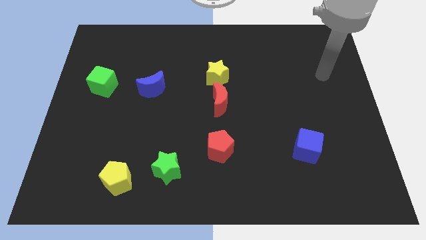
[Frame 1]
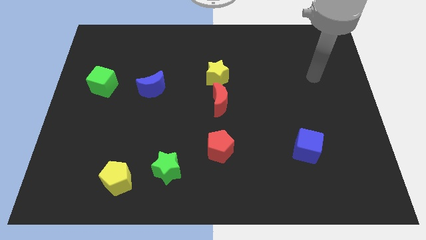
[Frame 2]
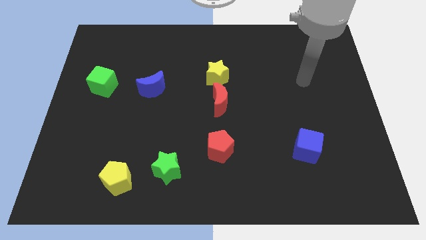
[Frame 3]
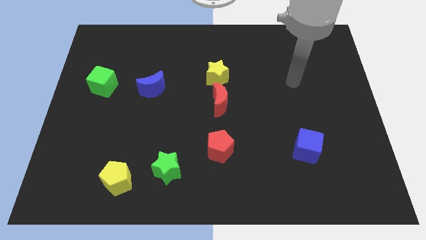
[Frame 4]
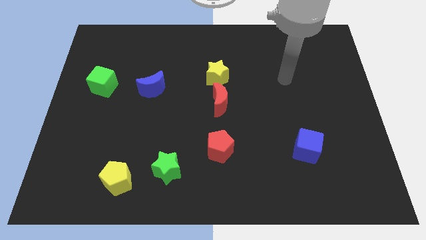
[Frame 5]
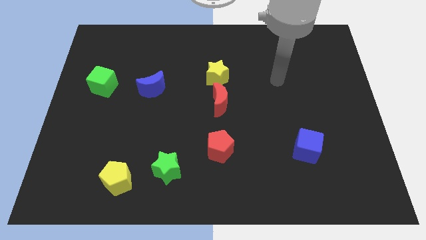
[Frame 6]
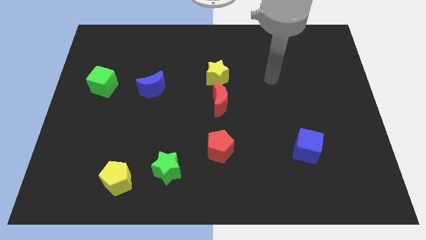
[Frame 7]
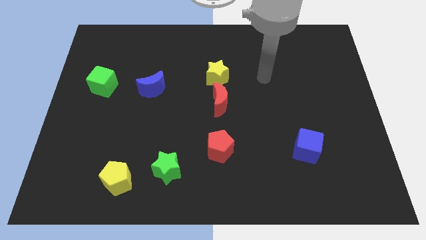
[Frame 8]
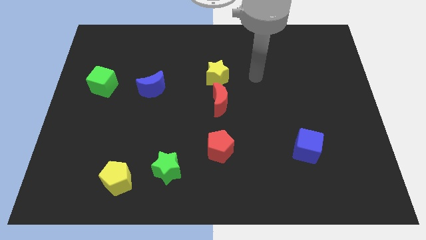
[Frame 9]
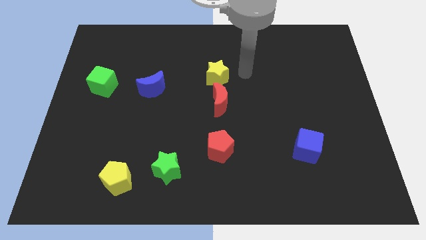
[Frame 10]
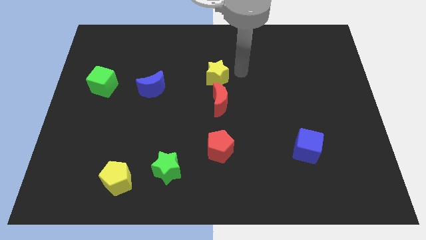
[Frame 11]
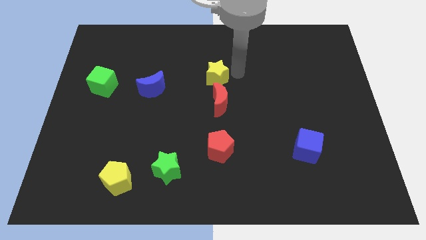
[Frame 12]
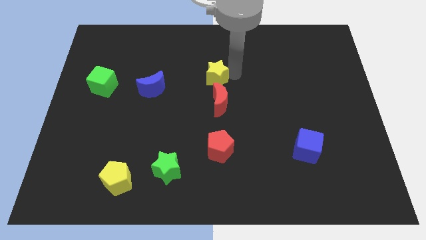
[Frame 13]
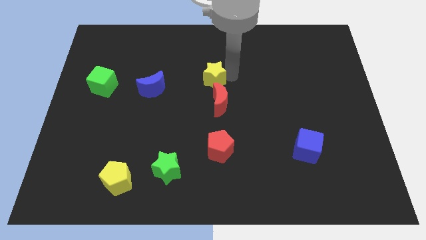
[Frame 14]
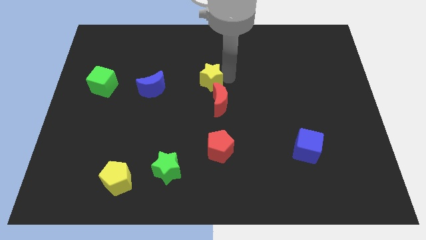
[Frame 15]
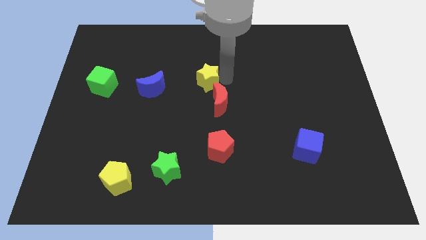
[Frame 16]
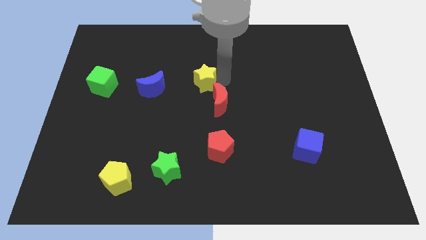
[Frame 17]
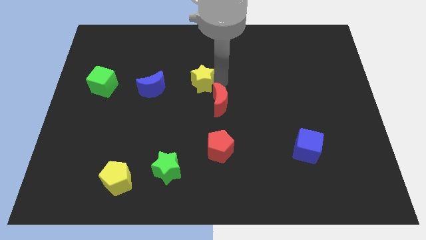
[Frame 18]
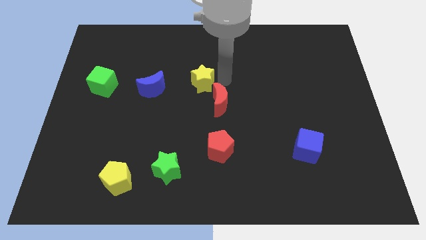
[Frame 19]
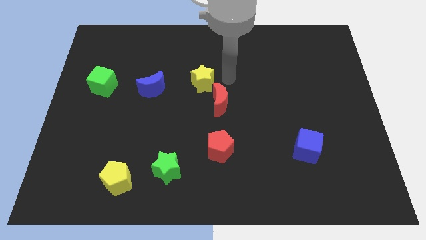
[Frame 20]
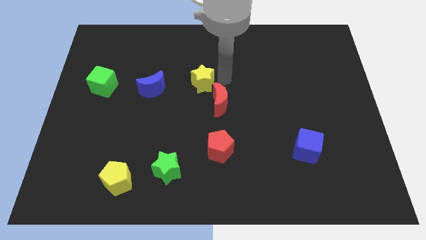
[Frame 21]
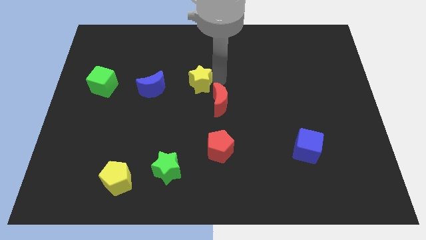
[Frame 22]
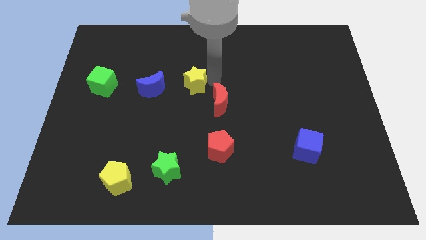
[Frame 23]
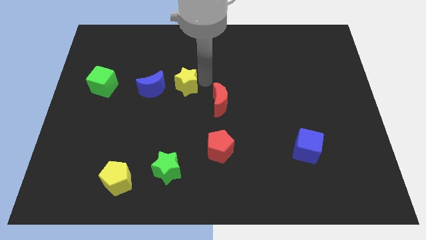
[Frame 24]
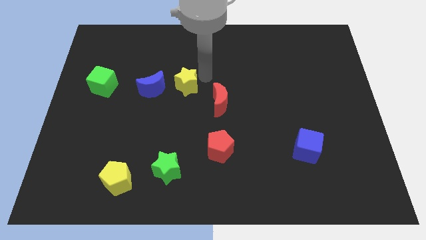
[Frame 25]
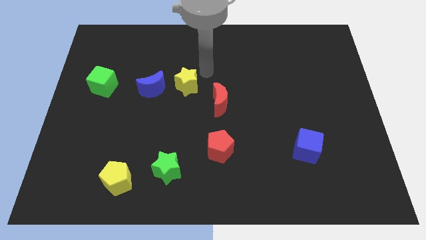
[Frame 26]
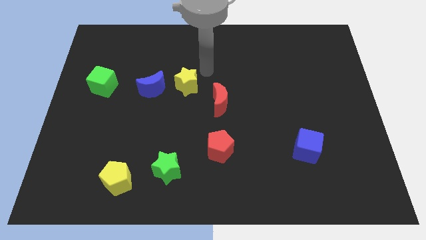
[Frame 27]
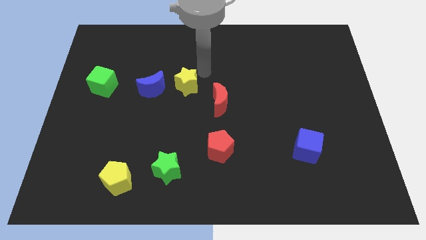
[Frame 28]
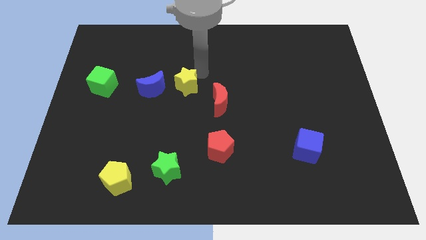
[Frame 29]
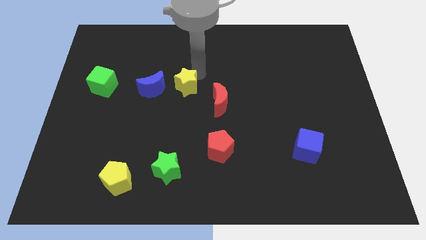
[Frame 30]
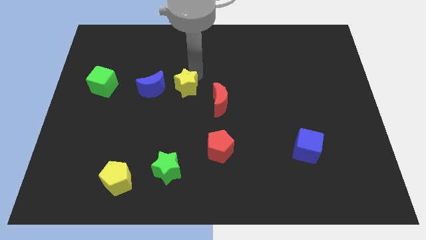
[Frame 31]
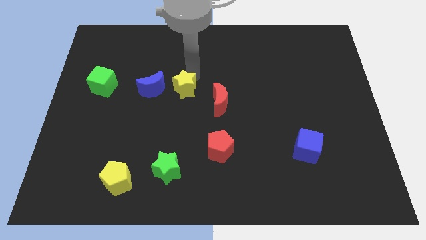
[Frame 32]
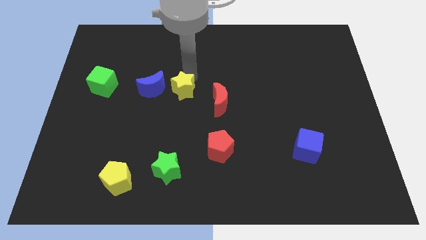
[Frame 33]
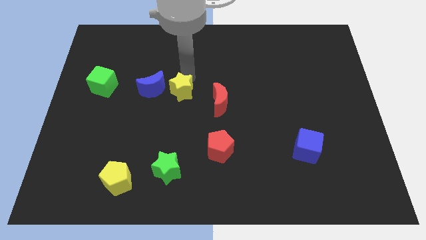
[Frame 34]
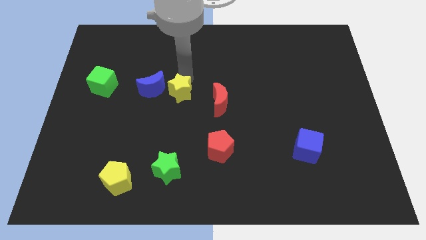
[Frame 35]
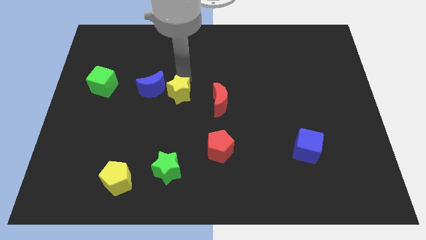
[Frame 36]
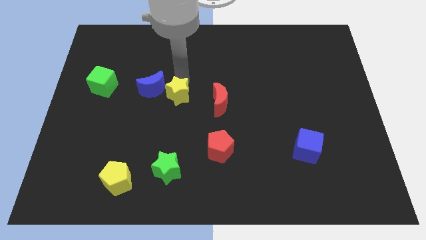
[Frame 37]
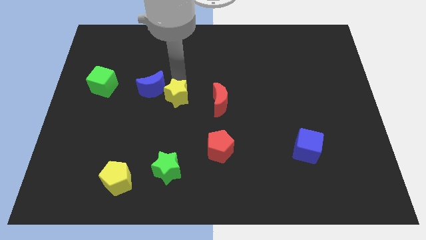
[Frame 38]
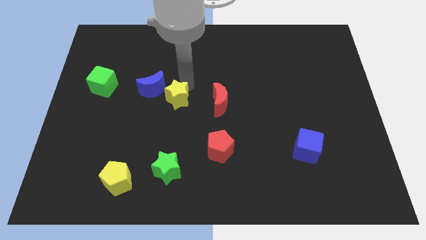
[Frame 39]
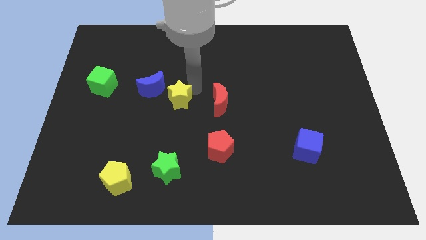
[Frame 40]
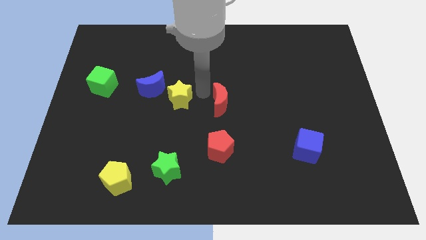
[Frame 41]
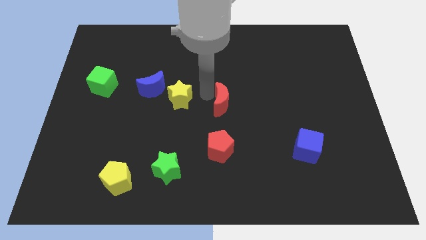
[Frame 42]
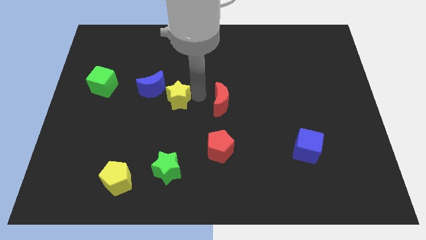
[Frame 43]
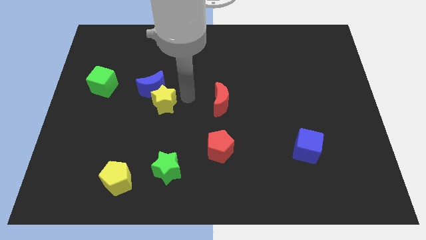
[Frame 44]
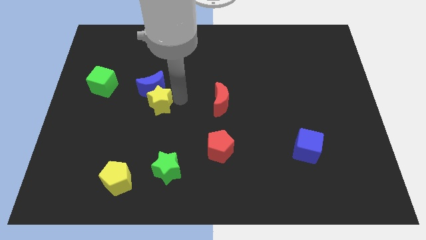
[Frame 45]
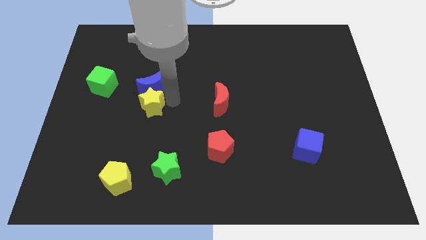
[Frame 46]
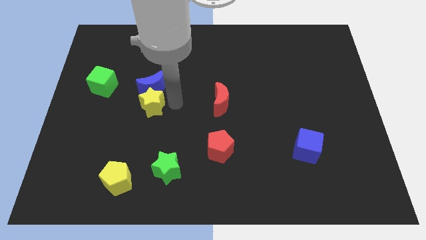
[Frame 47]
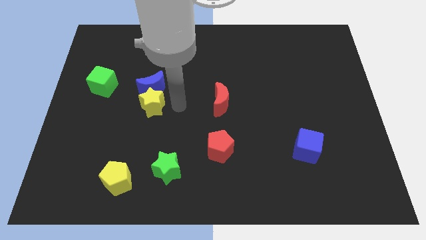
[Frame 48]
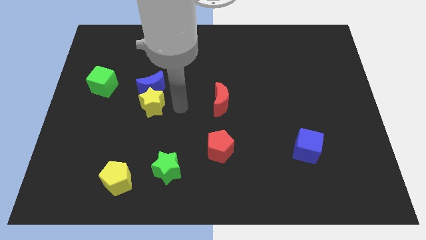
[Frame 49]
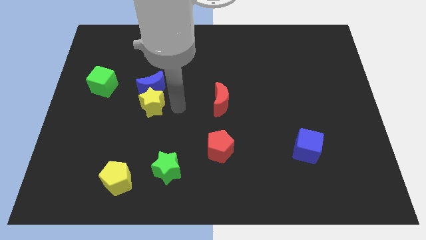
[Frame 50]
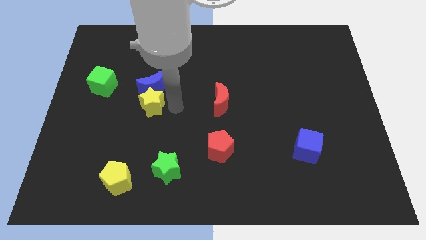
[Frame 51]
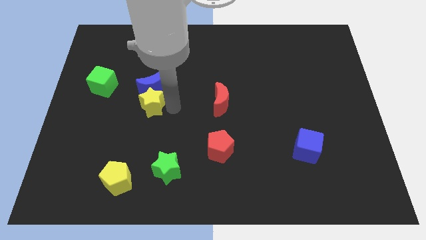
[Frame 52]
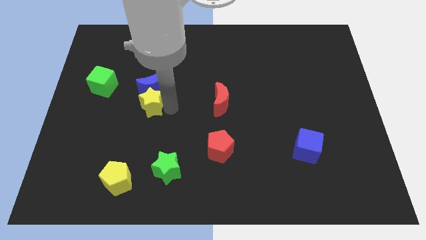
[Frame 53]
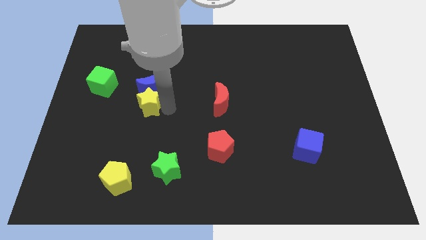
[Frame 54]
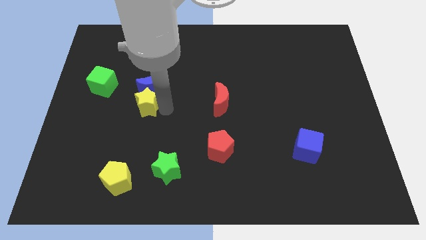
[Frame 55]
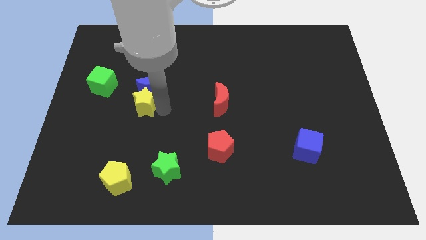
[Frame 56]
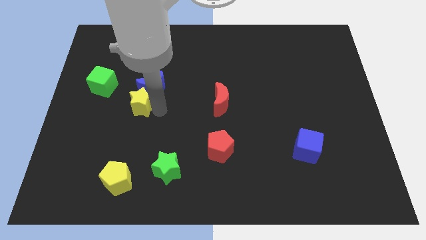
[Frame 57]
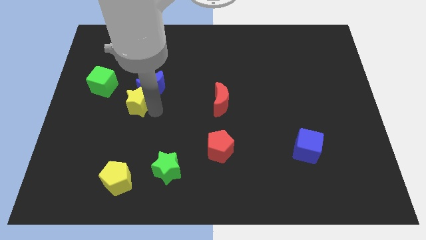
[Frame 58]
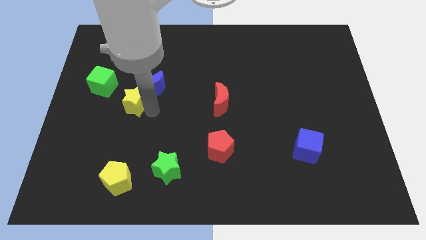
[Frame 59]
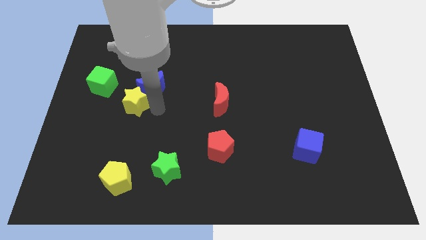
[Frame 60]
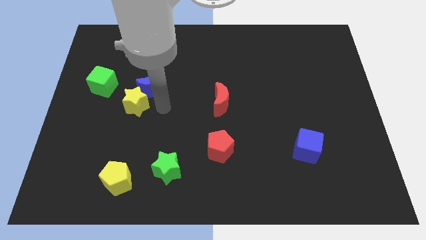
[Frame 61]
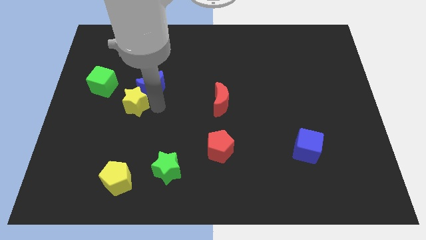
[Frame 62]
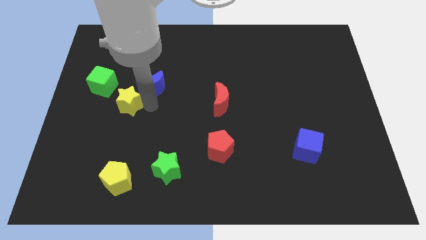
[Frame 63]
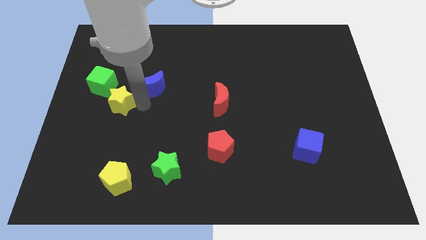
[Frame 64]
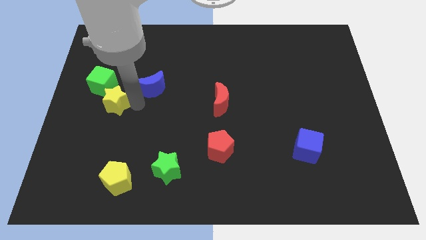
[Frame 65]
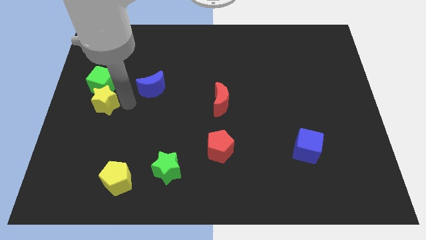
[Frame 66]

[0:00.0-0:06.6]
put the yellow star to the left side of the board
